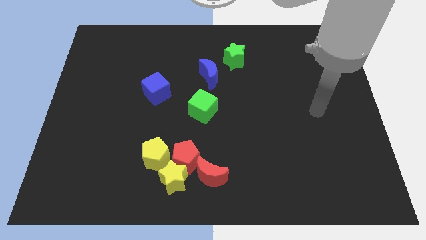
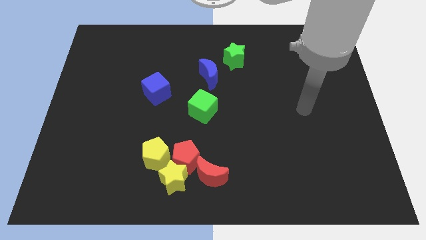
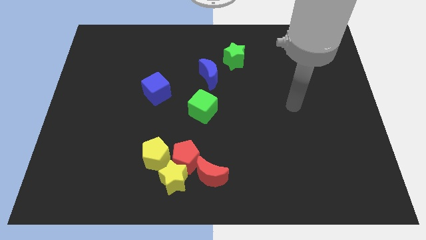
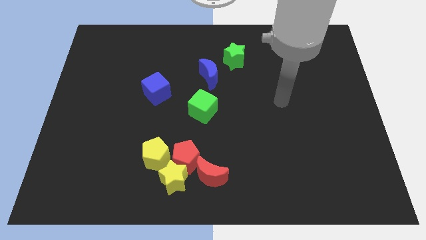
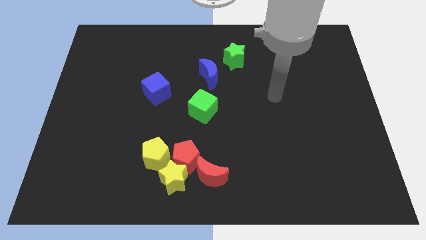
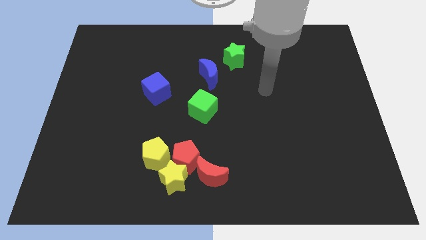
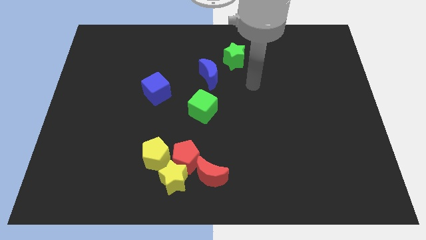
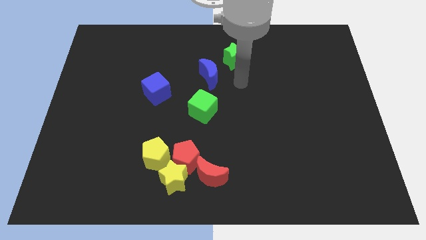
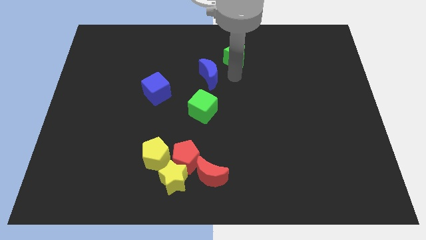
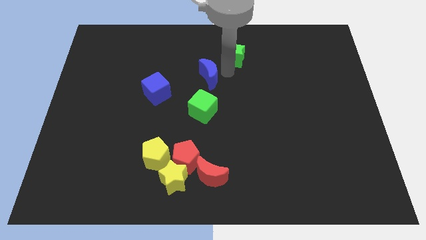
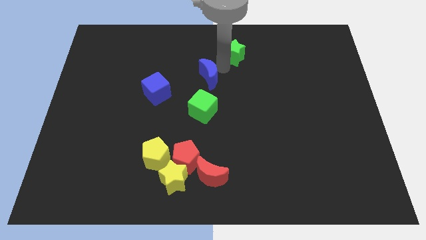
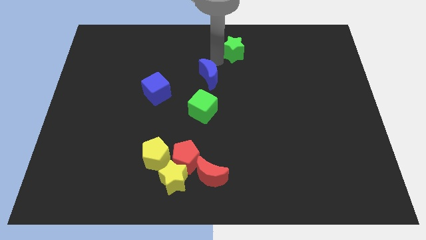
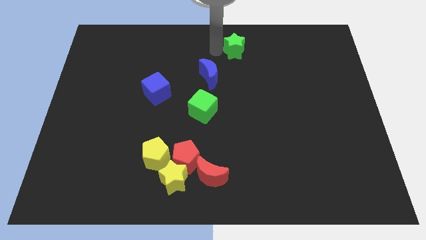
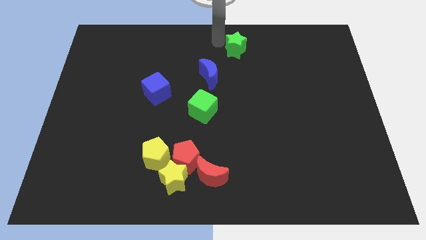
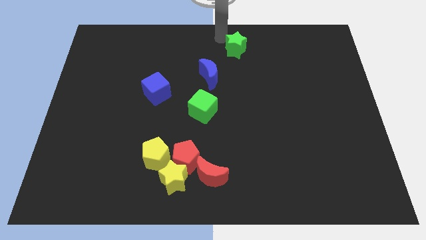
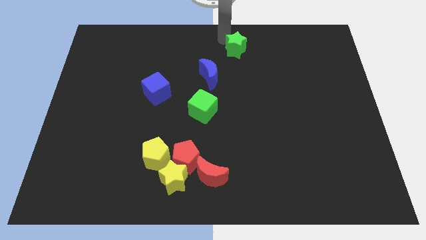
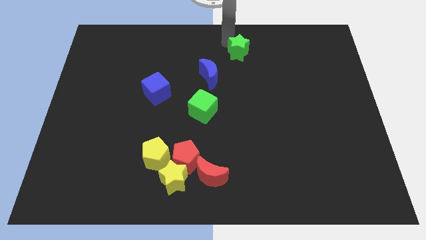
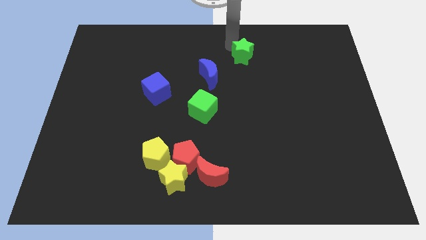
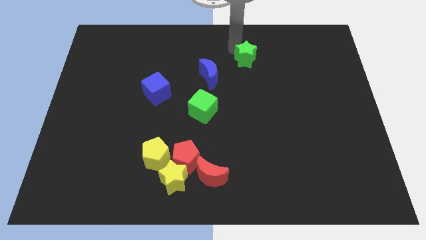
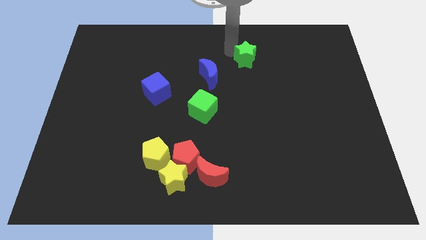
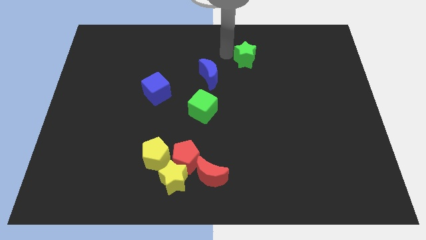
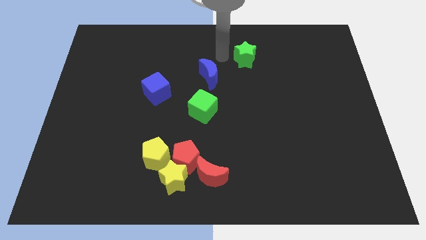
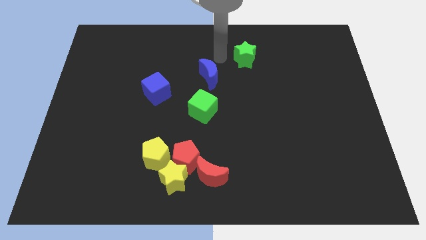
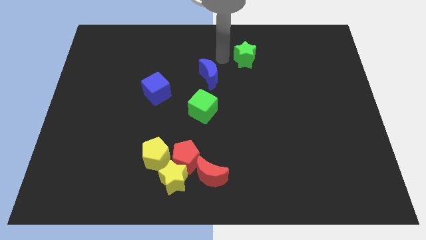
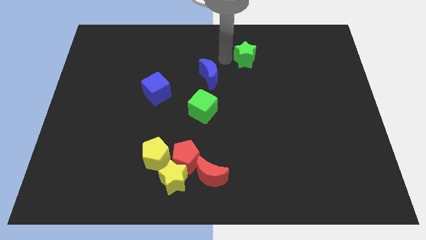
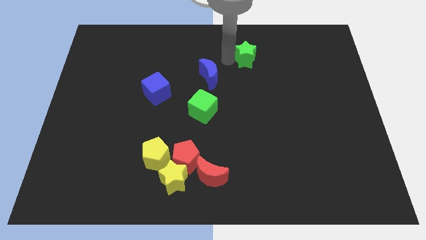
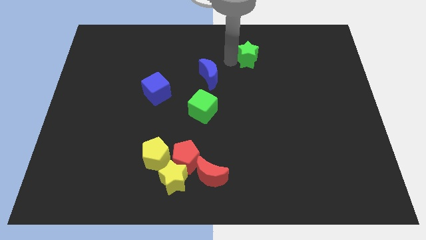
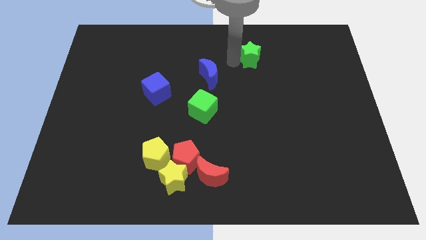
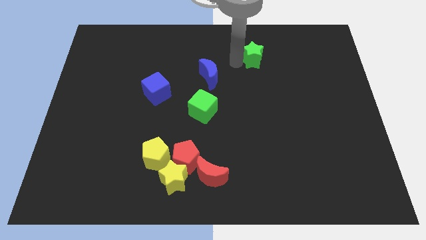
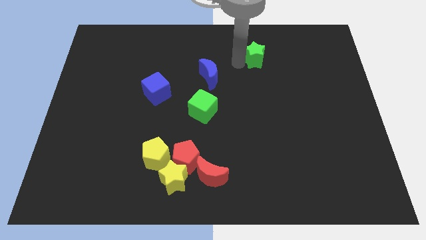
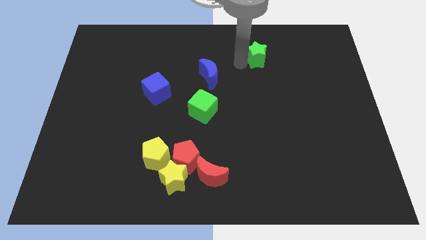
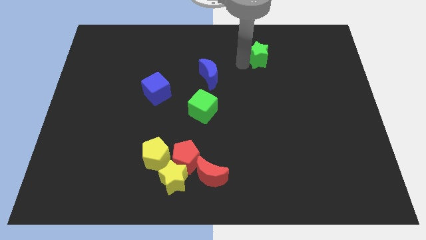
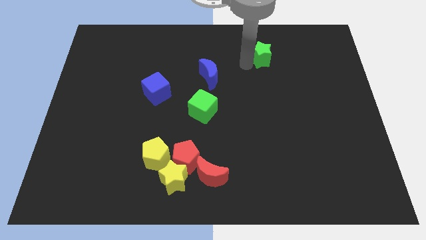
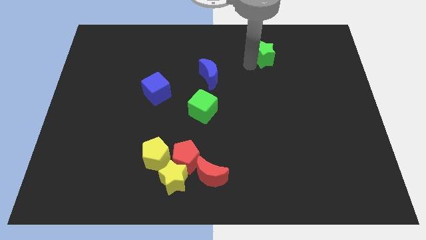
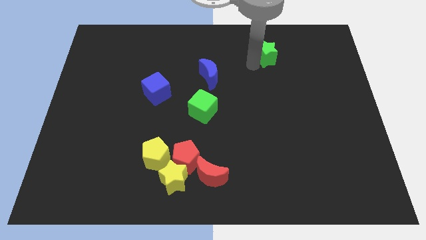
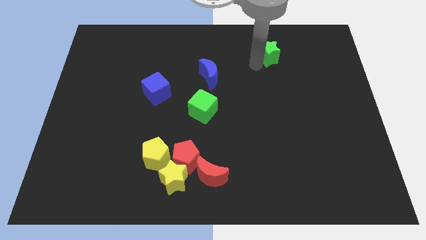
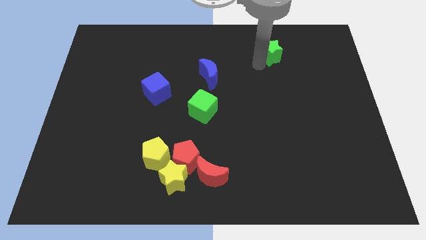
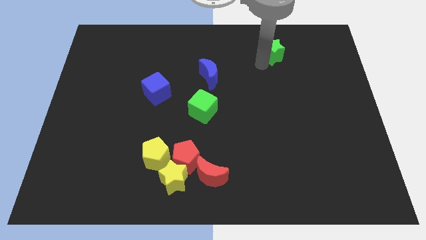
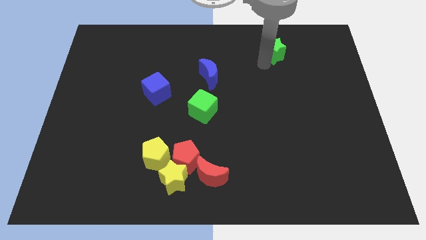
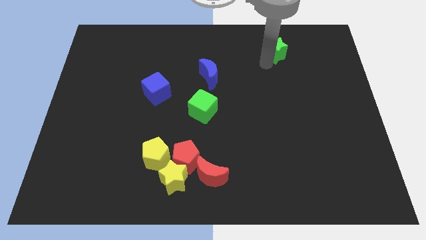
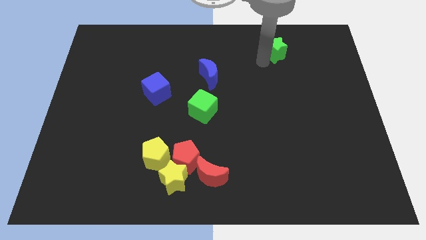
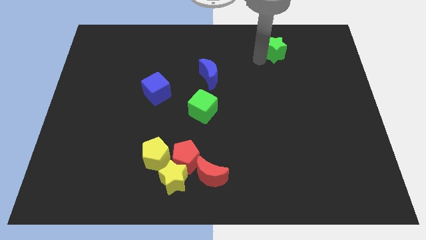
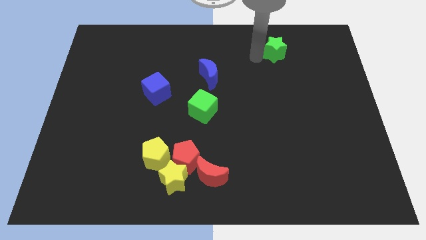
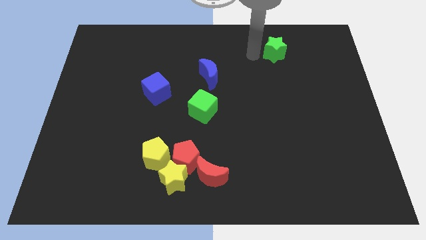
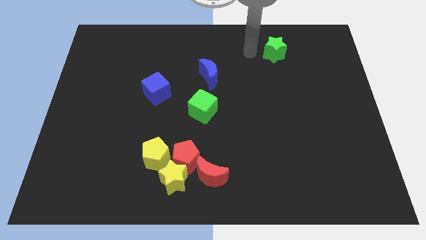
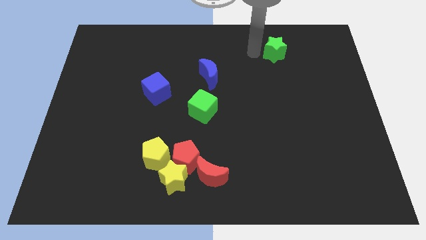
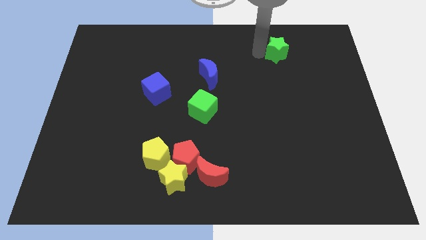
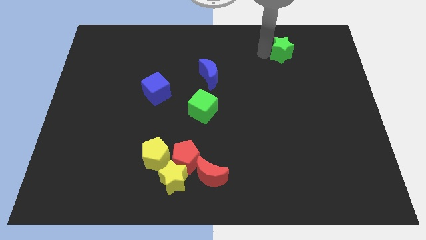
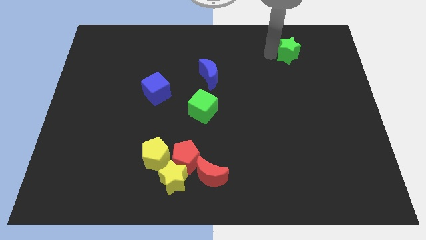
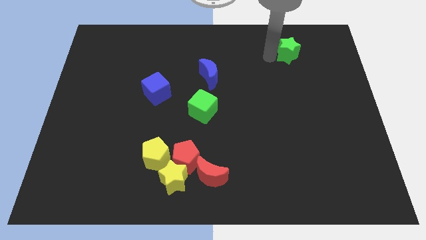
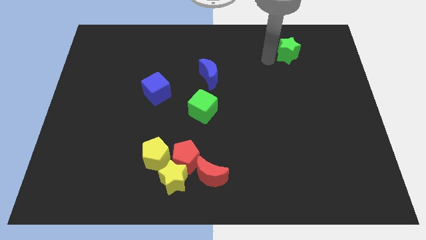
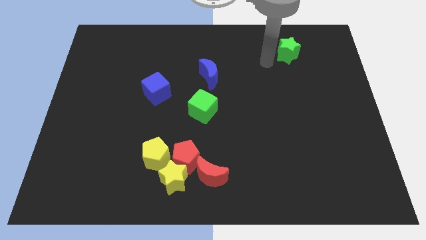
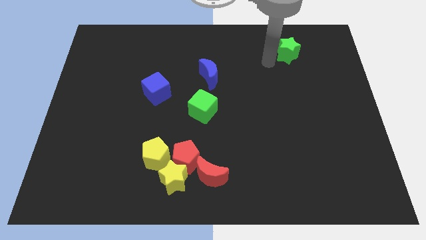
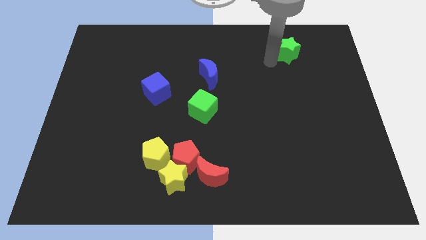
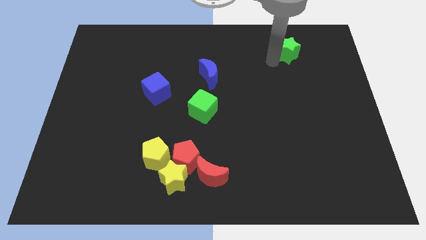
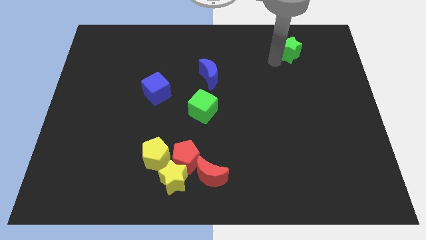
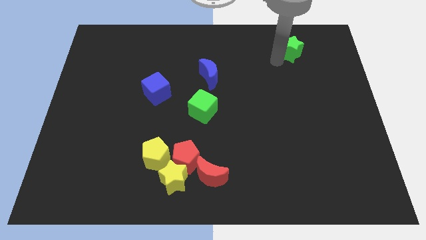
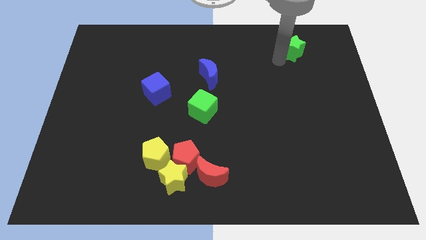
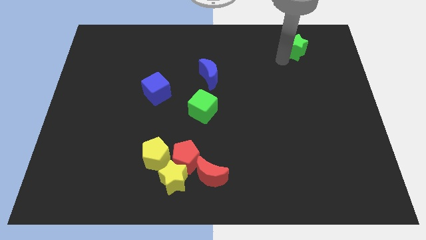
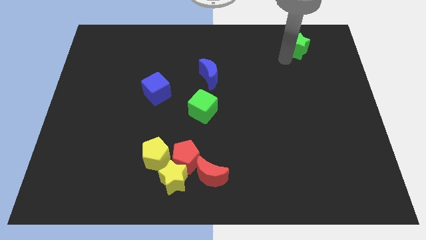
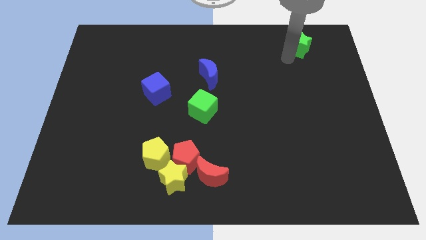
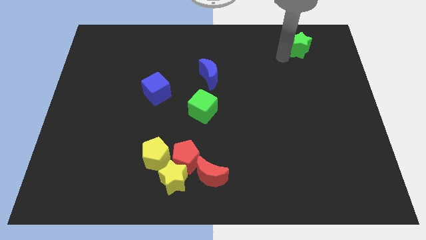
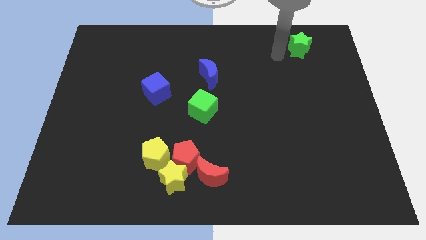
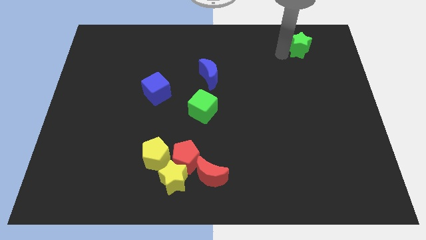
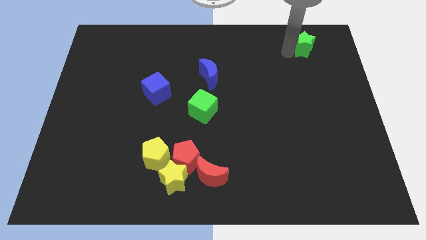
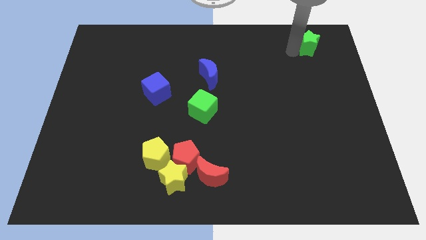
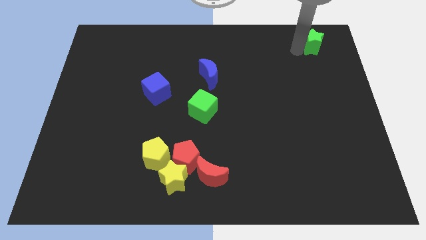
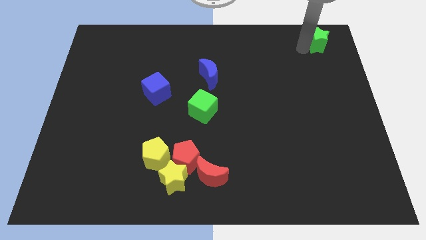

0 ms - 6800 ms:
move the green star to the top right corner
